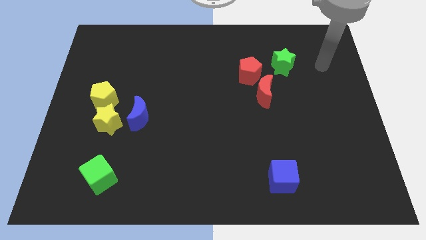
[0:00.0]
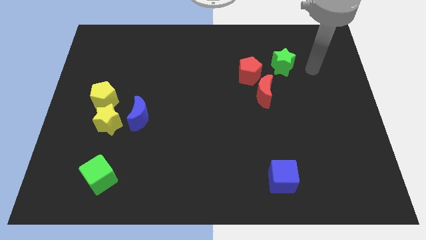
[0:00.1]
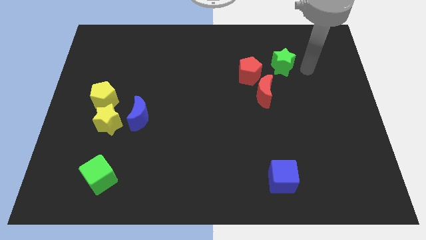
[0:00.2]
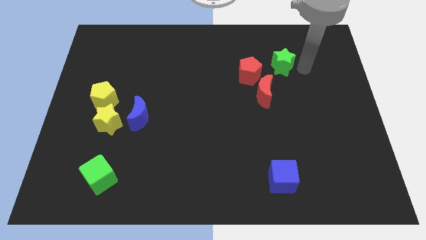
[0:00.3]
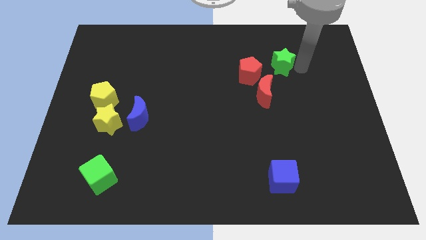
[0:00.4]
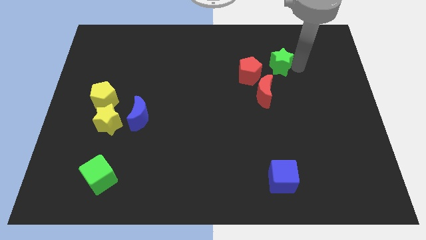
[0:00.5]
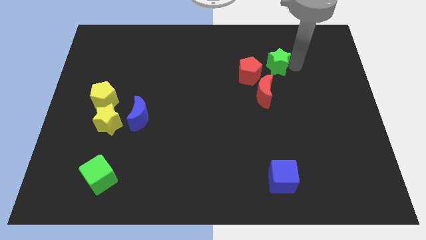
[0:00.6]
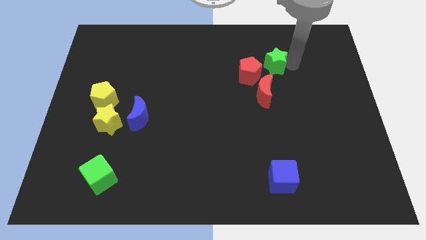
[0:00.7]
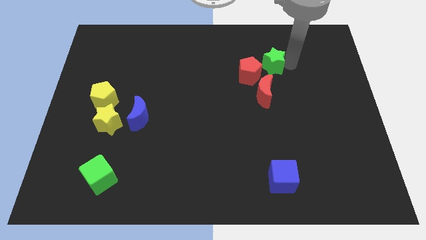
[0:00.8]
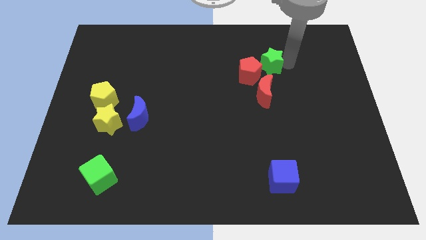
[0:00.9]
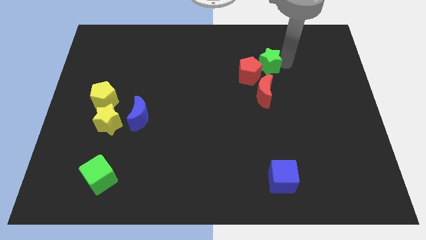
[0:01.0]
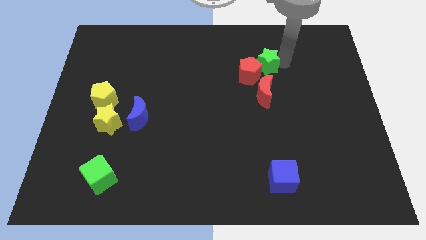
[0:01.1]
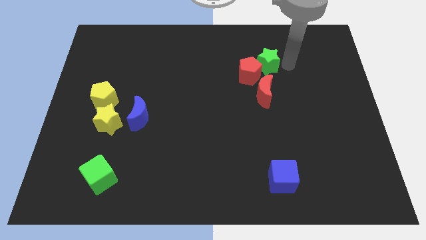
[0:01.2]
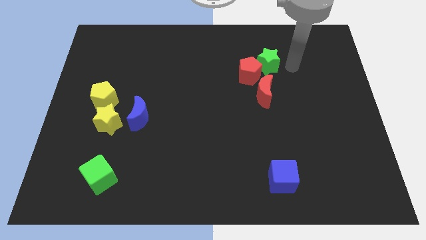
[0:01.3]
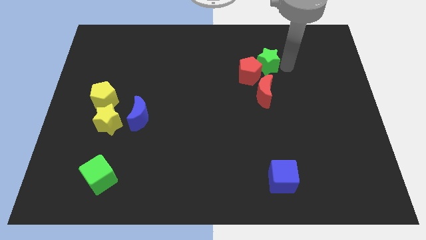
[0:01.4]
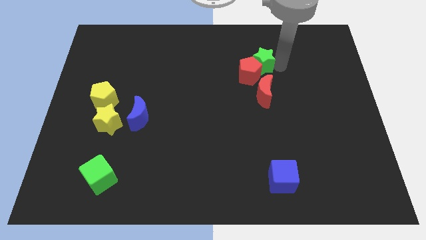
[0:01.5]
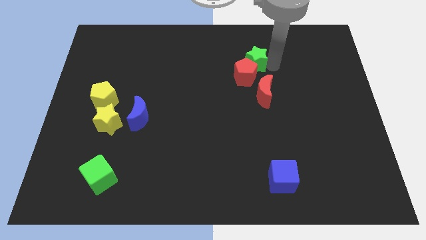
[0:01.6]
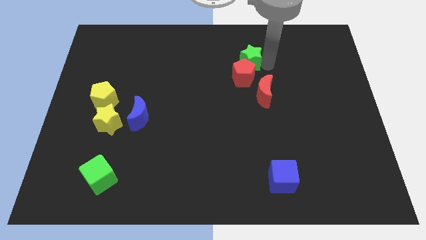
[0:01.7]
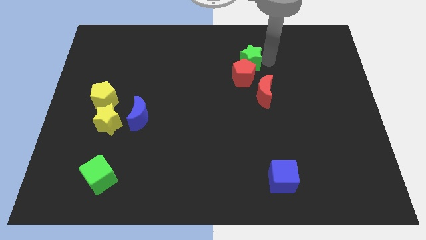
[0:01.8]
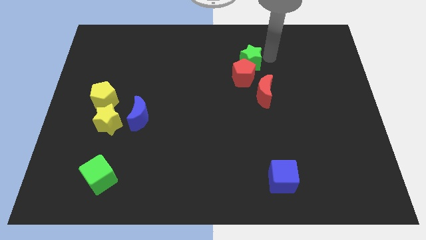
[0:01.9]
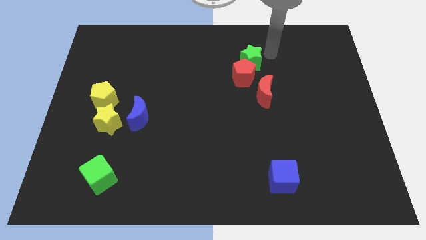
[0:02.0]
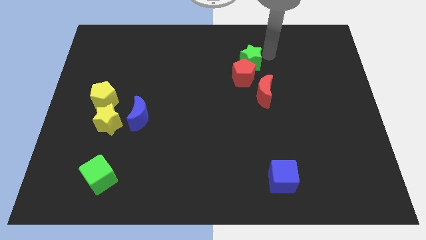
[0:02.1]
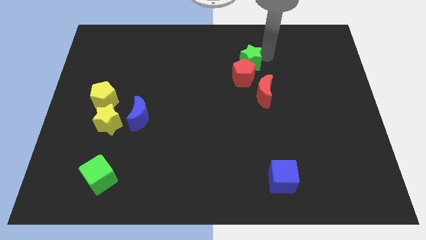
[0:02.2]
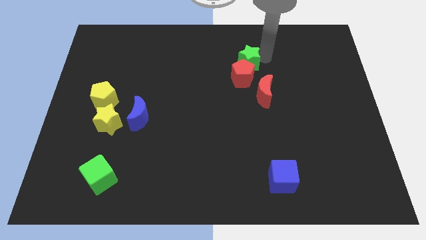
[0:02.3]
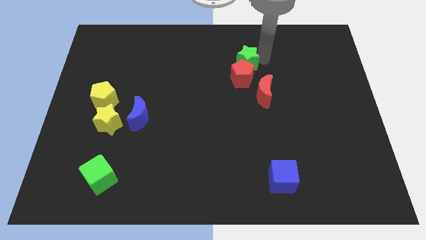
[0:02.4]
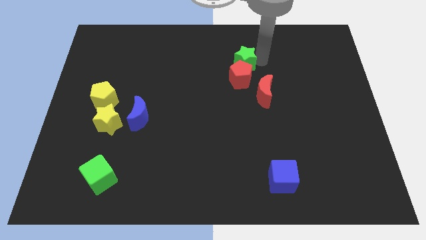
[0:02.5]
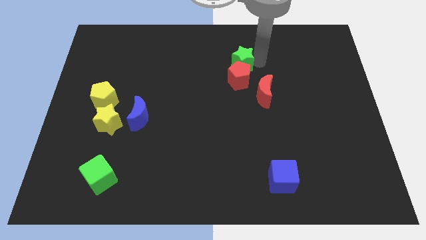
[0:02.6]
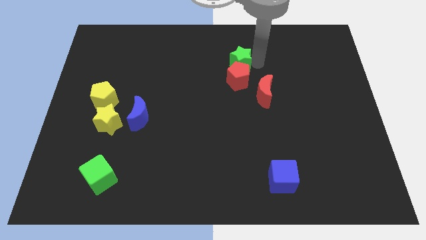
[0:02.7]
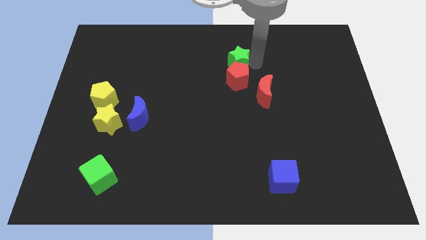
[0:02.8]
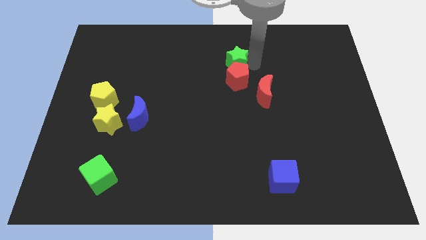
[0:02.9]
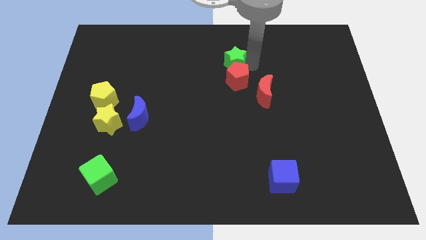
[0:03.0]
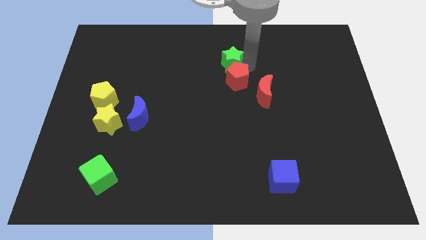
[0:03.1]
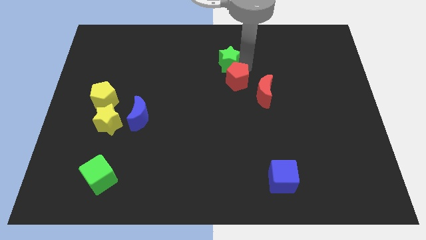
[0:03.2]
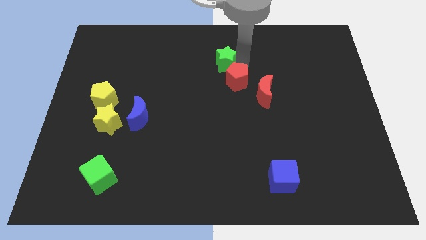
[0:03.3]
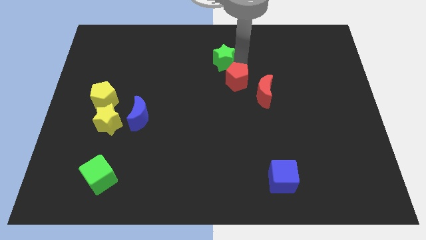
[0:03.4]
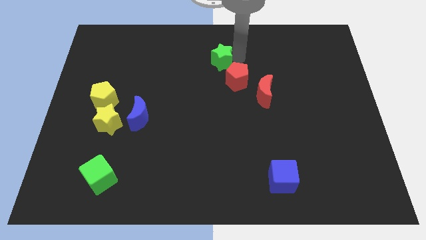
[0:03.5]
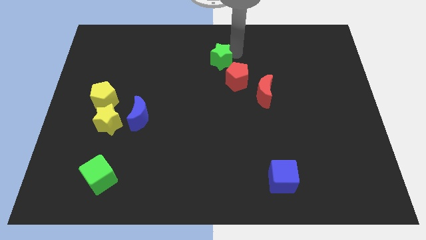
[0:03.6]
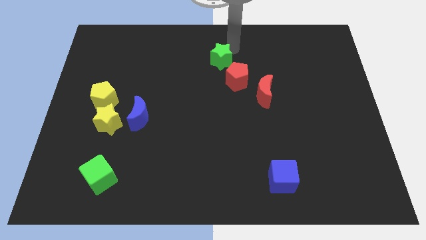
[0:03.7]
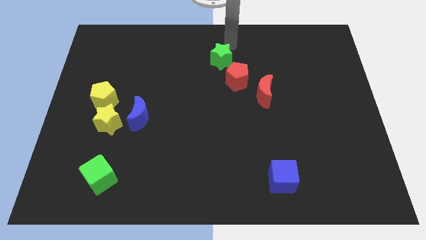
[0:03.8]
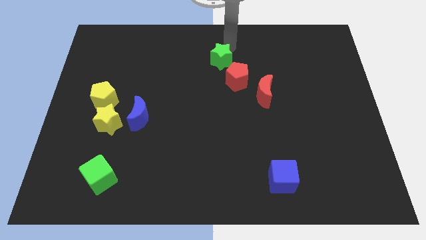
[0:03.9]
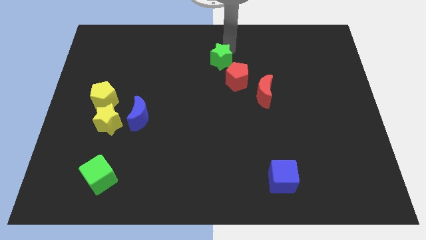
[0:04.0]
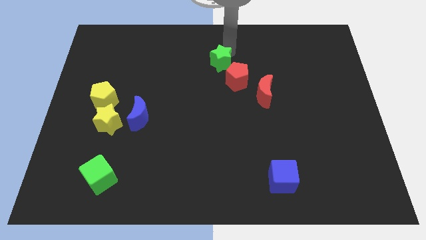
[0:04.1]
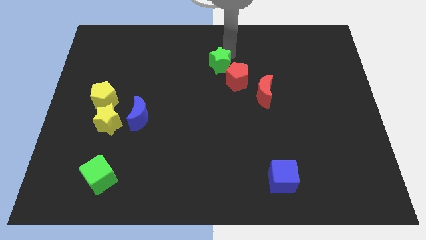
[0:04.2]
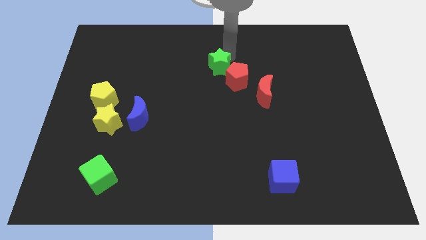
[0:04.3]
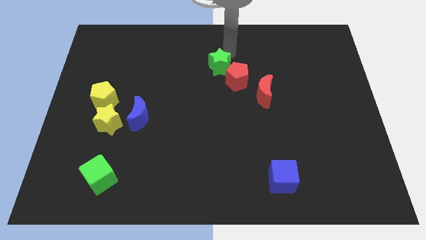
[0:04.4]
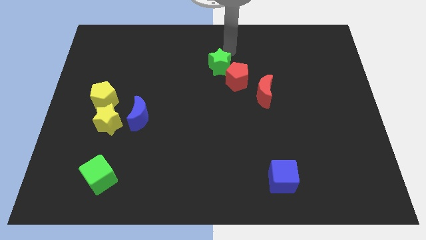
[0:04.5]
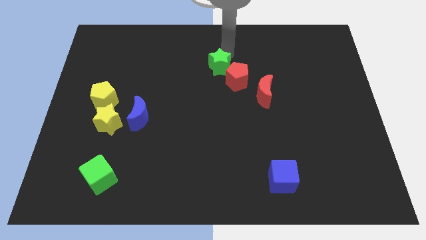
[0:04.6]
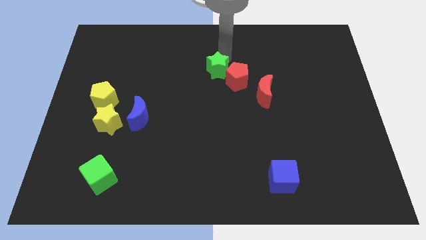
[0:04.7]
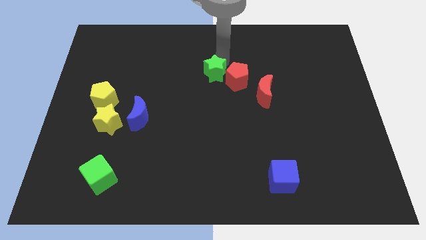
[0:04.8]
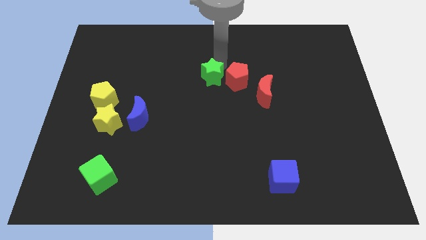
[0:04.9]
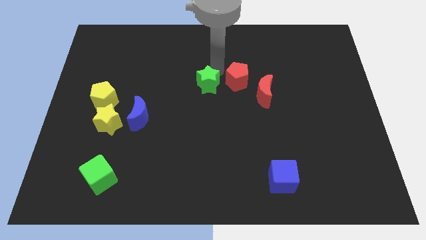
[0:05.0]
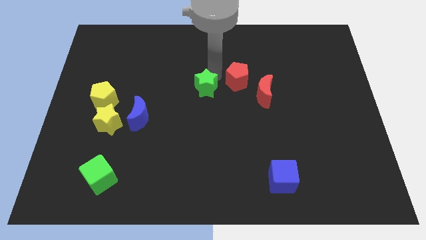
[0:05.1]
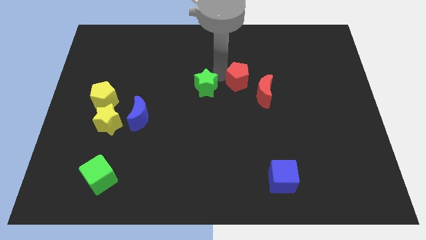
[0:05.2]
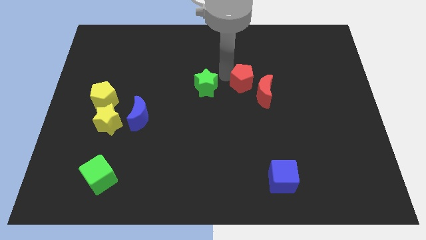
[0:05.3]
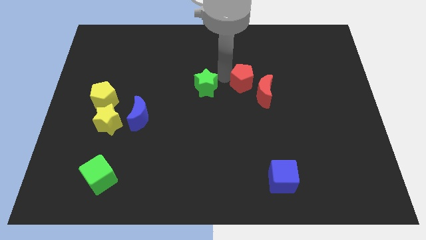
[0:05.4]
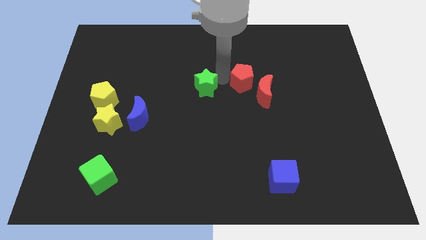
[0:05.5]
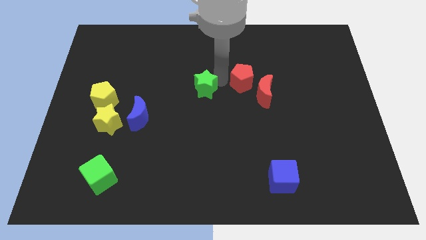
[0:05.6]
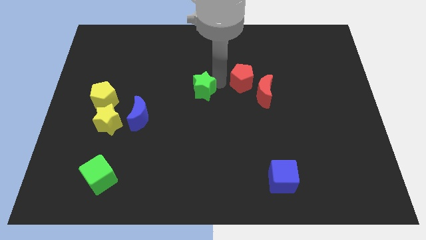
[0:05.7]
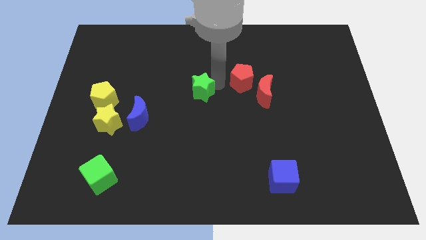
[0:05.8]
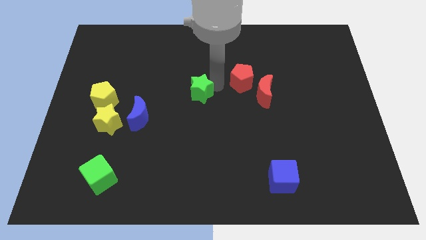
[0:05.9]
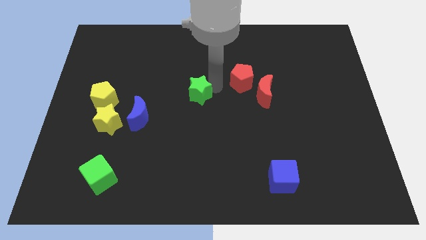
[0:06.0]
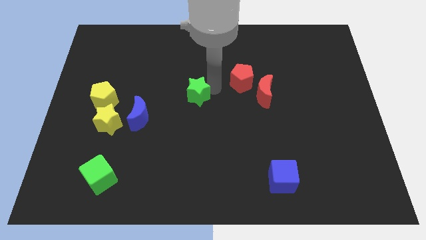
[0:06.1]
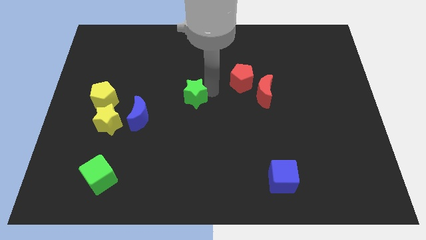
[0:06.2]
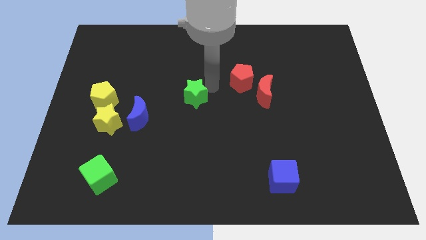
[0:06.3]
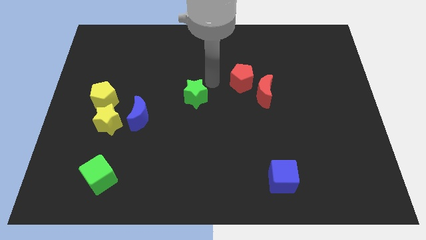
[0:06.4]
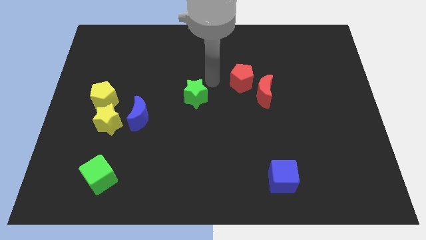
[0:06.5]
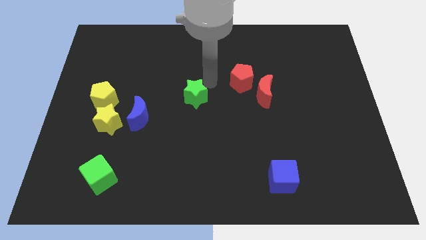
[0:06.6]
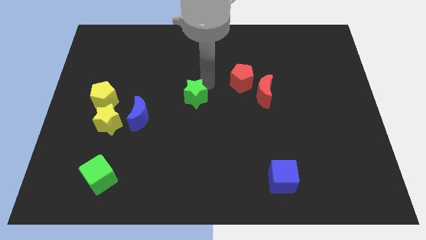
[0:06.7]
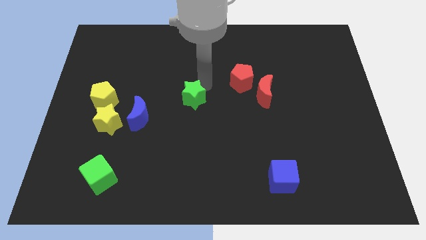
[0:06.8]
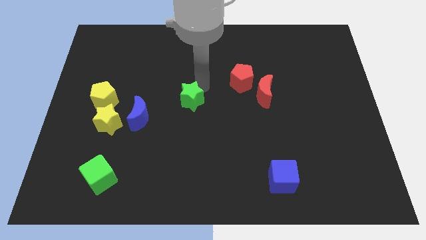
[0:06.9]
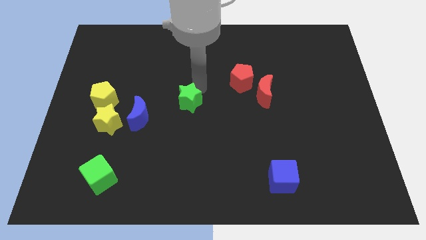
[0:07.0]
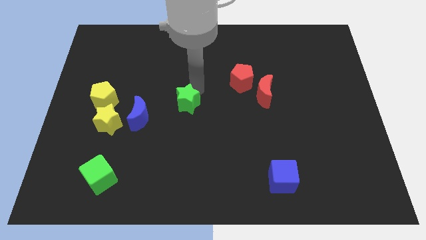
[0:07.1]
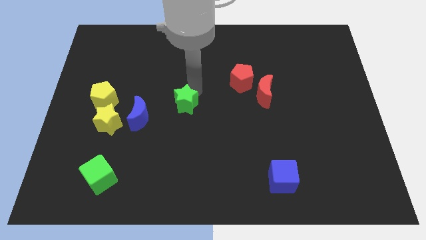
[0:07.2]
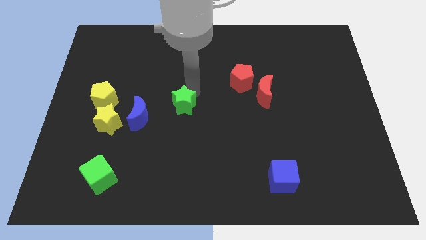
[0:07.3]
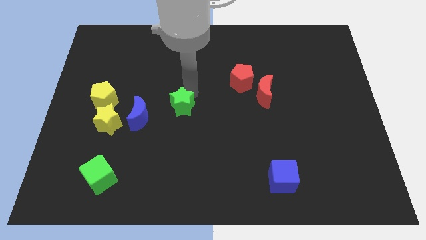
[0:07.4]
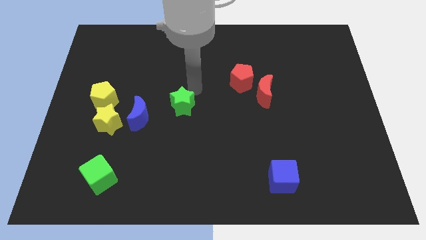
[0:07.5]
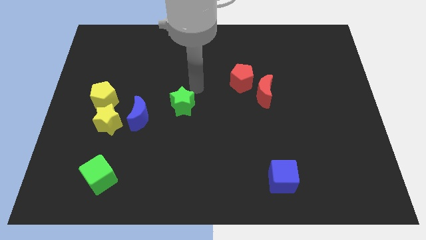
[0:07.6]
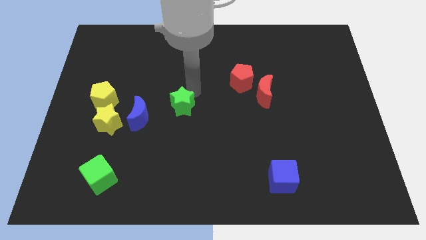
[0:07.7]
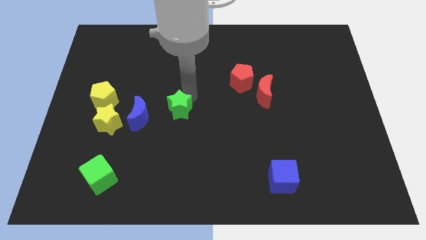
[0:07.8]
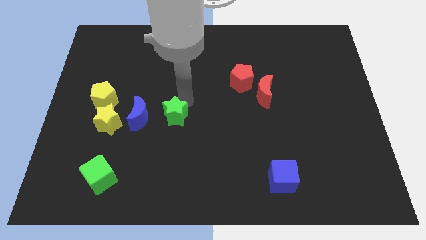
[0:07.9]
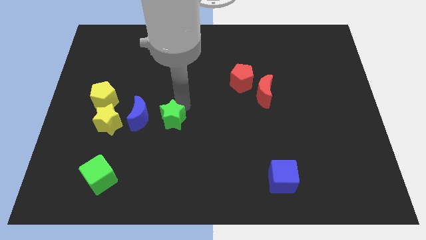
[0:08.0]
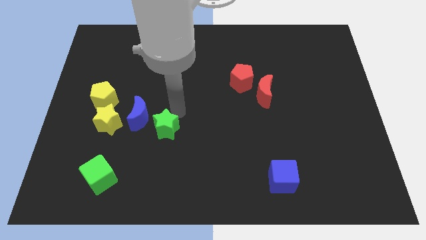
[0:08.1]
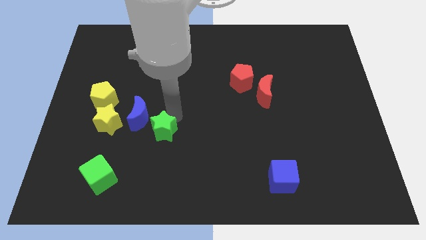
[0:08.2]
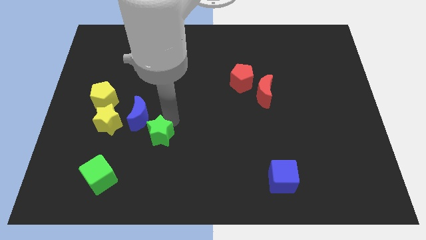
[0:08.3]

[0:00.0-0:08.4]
put the green star to the bottom side of the blue moon
